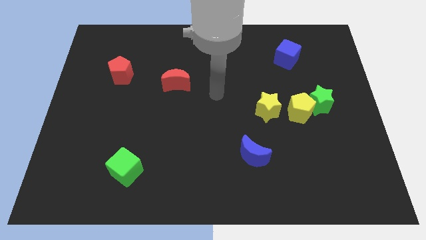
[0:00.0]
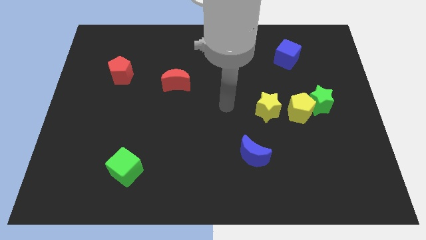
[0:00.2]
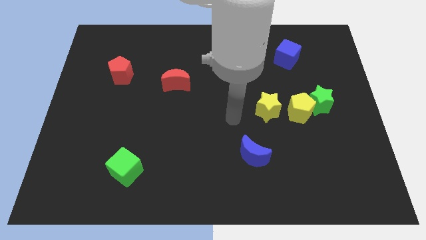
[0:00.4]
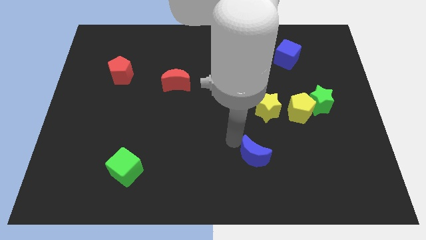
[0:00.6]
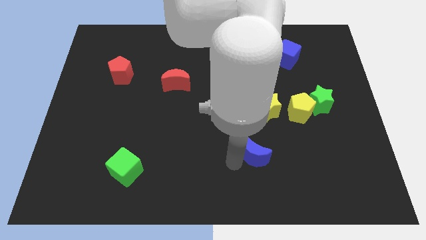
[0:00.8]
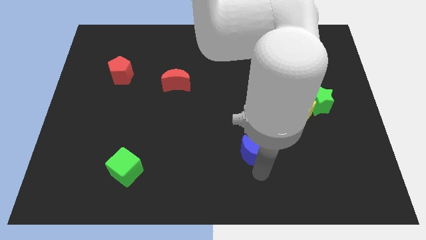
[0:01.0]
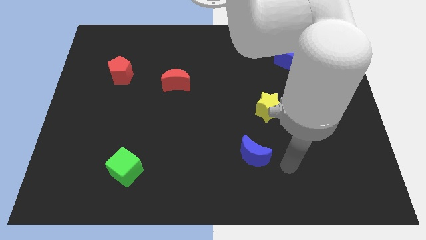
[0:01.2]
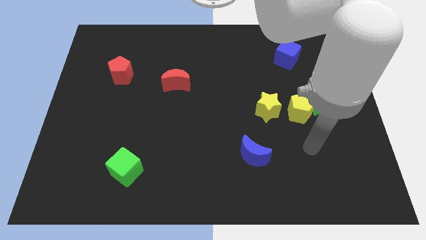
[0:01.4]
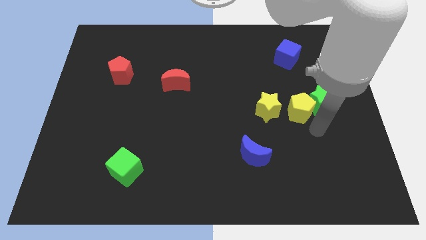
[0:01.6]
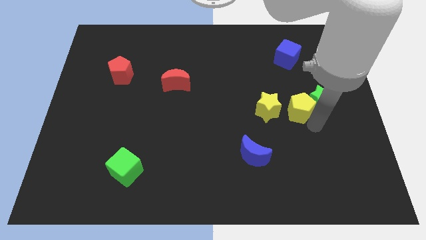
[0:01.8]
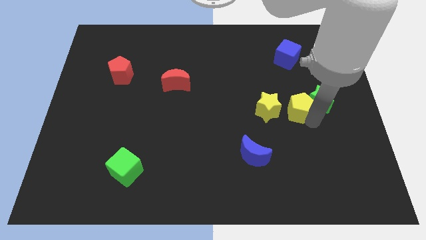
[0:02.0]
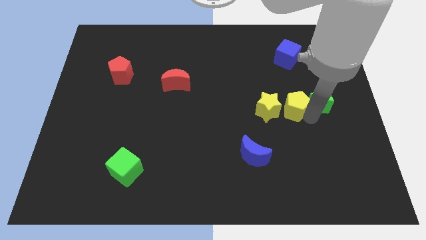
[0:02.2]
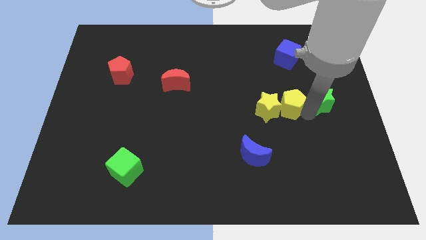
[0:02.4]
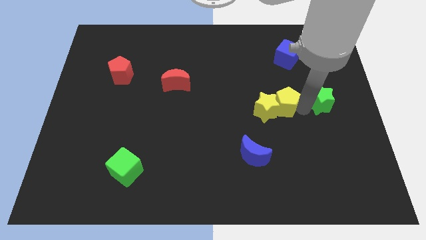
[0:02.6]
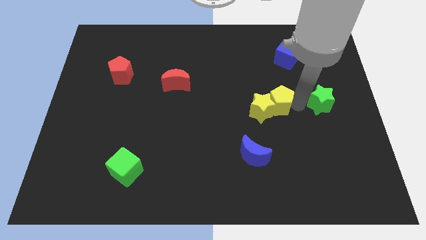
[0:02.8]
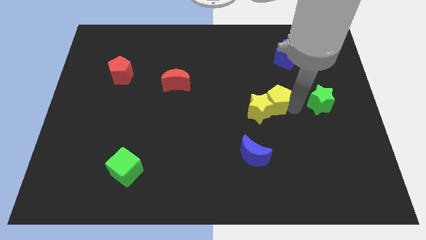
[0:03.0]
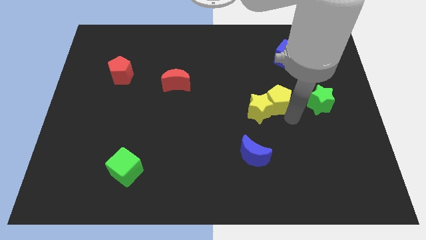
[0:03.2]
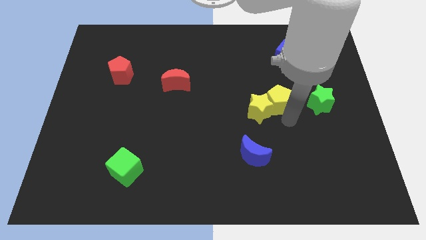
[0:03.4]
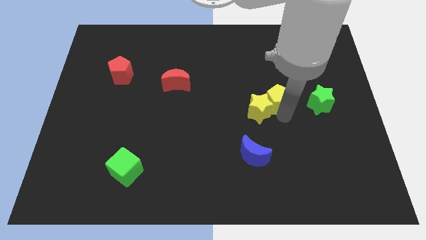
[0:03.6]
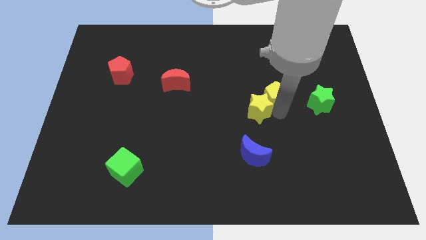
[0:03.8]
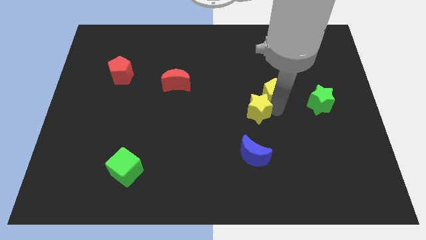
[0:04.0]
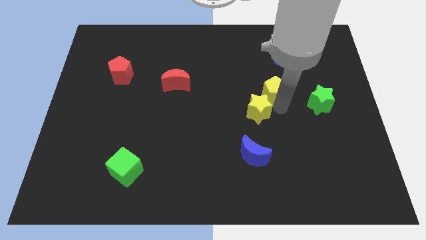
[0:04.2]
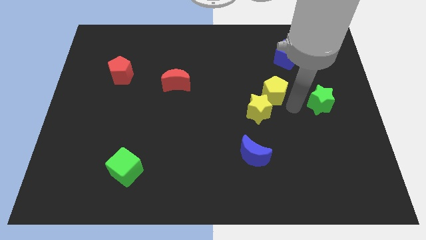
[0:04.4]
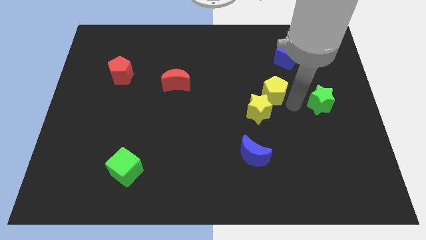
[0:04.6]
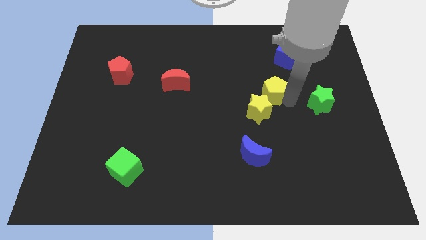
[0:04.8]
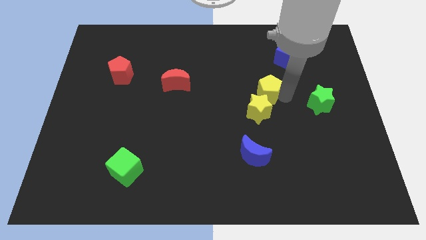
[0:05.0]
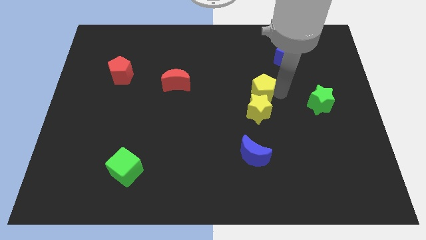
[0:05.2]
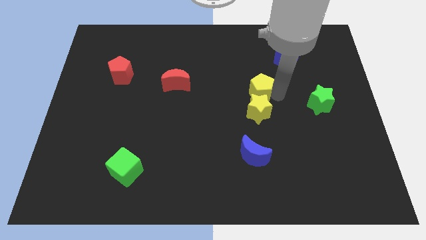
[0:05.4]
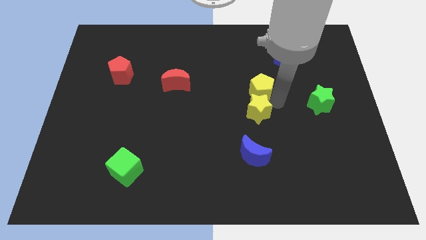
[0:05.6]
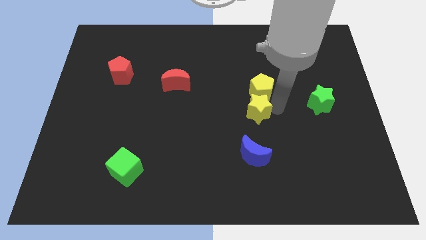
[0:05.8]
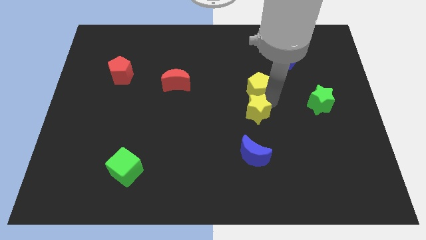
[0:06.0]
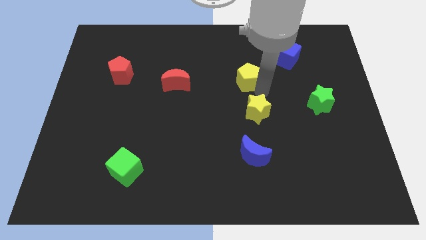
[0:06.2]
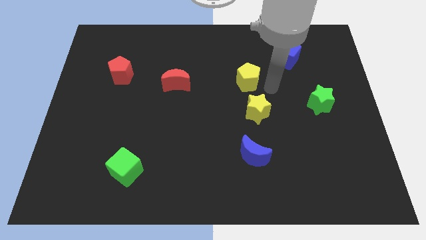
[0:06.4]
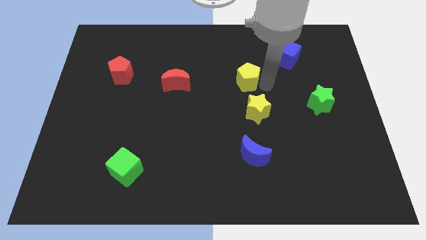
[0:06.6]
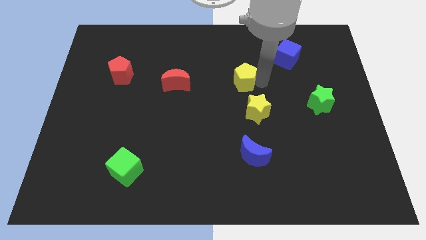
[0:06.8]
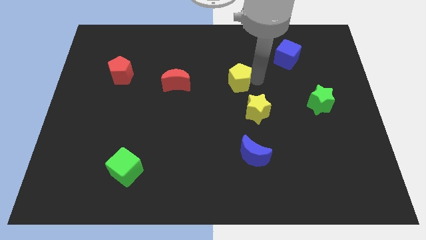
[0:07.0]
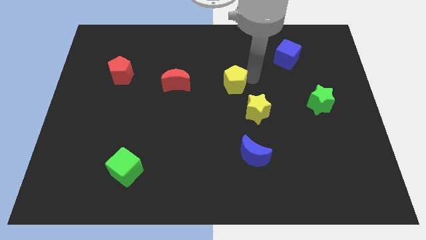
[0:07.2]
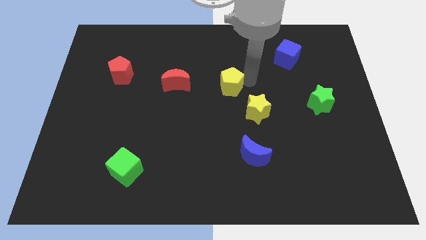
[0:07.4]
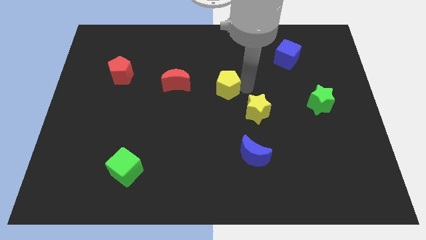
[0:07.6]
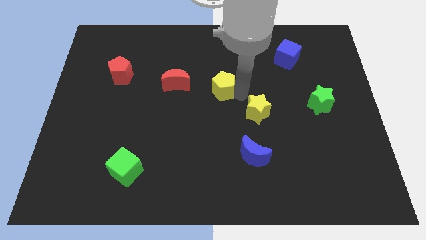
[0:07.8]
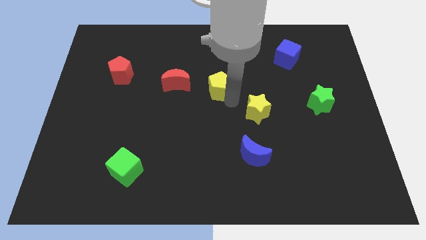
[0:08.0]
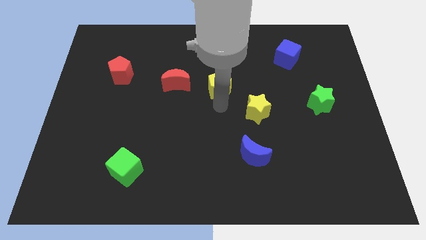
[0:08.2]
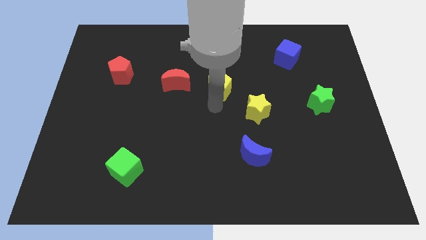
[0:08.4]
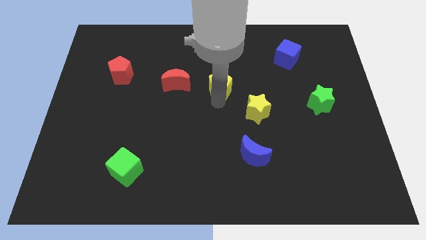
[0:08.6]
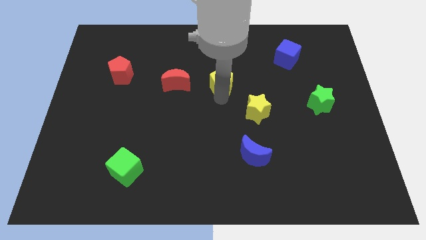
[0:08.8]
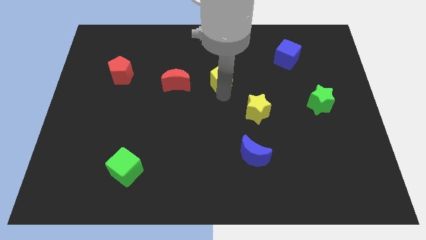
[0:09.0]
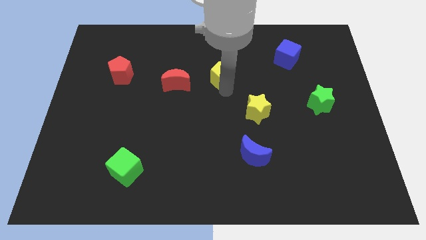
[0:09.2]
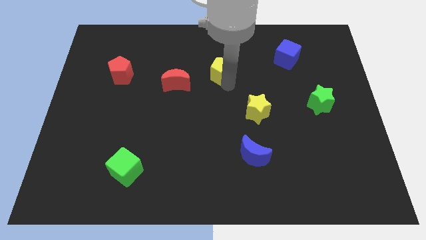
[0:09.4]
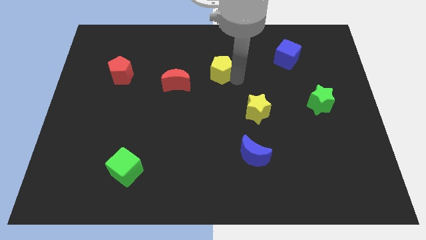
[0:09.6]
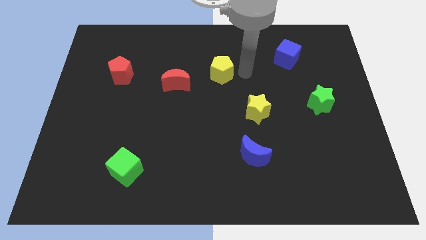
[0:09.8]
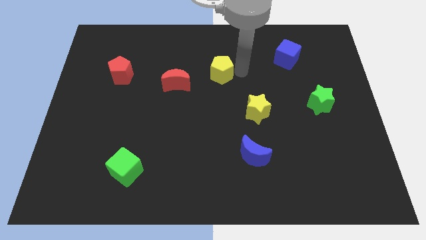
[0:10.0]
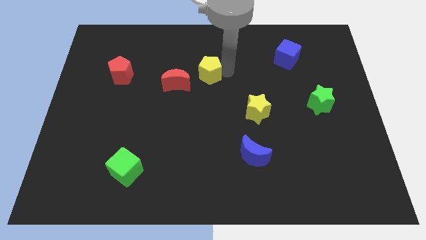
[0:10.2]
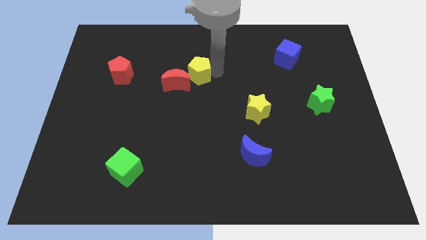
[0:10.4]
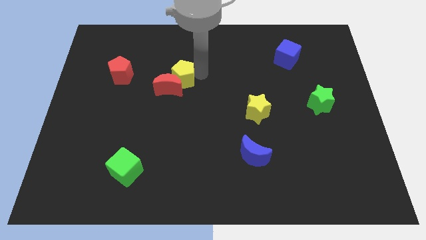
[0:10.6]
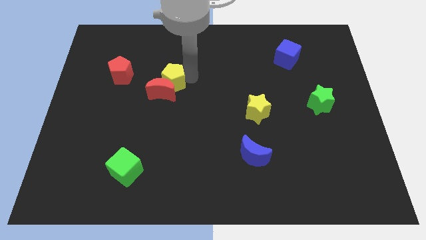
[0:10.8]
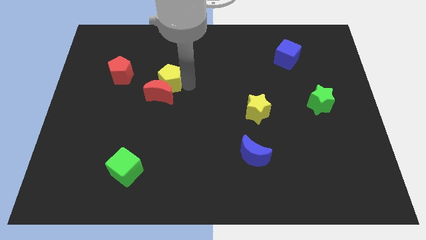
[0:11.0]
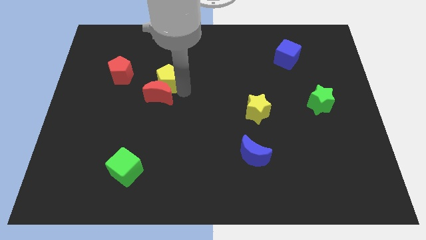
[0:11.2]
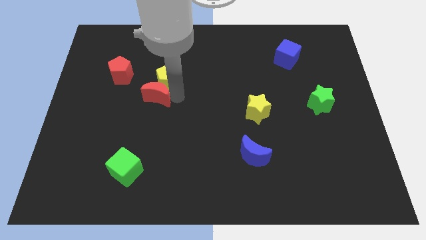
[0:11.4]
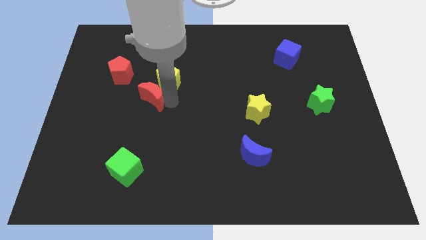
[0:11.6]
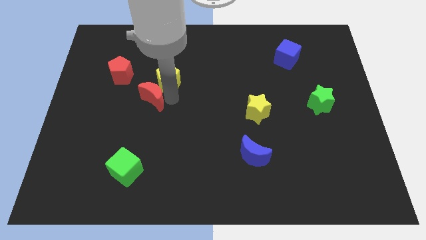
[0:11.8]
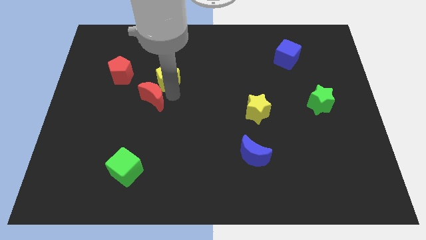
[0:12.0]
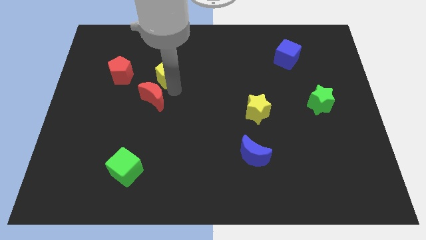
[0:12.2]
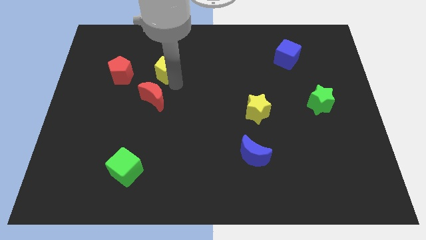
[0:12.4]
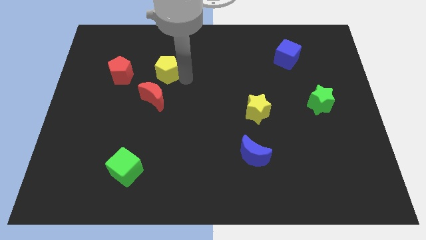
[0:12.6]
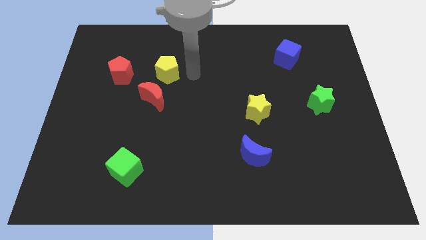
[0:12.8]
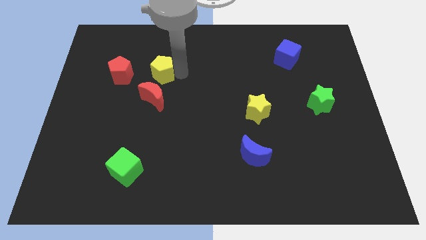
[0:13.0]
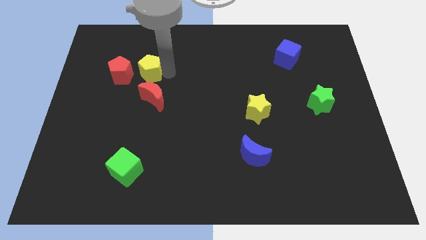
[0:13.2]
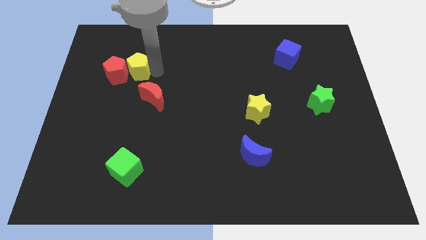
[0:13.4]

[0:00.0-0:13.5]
move the yellow pentagon towards the red pentagon
